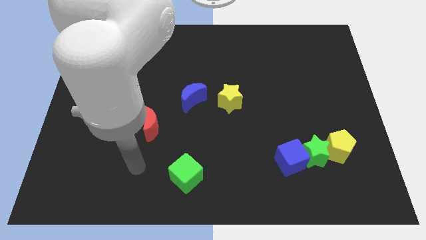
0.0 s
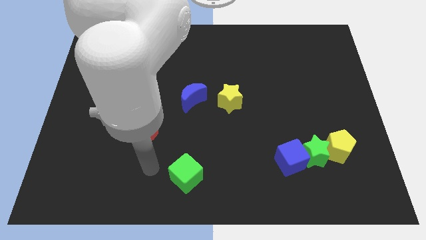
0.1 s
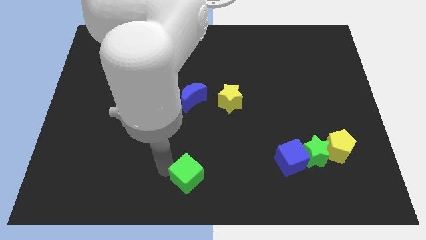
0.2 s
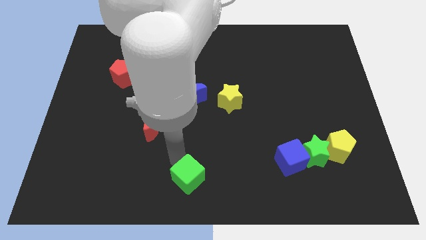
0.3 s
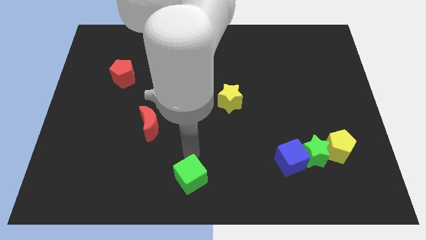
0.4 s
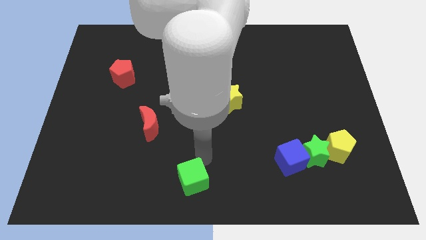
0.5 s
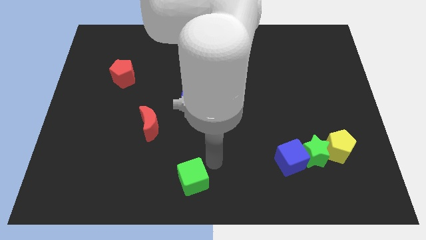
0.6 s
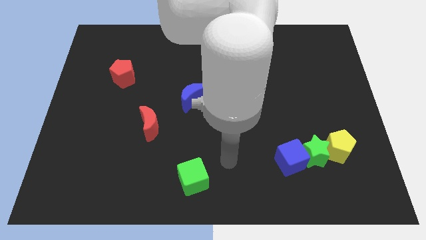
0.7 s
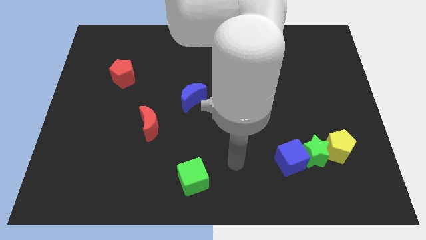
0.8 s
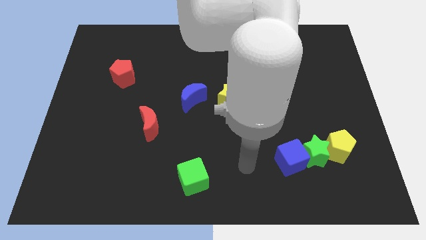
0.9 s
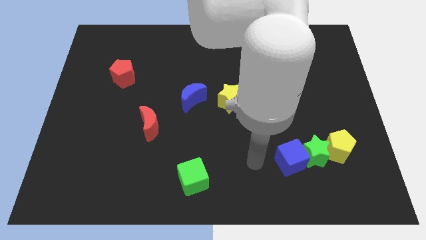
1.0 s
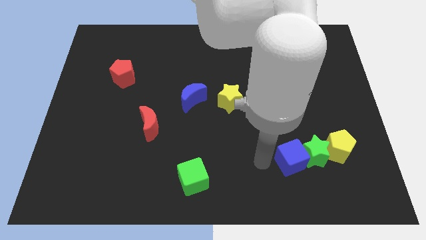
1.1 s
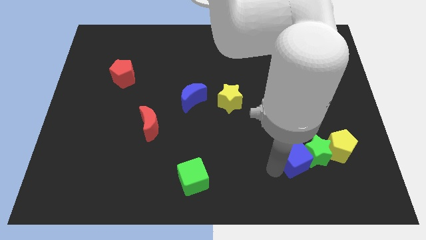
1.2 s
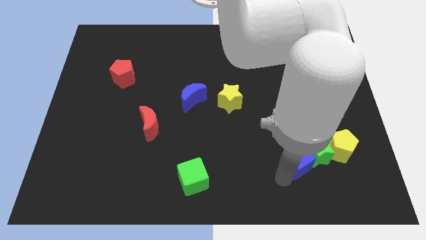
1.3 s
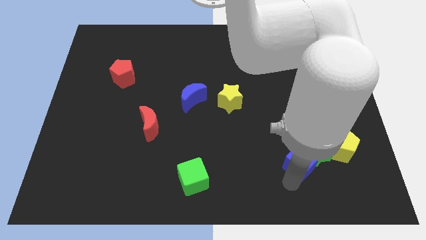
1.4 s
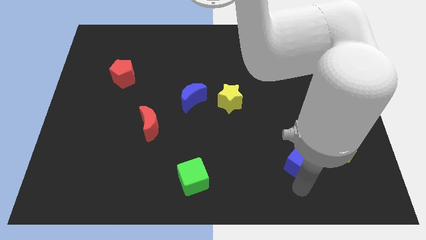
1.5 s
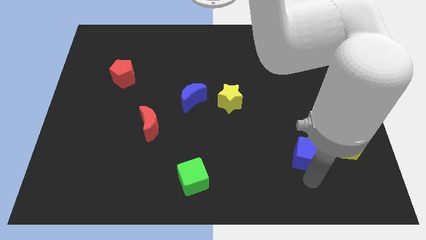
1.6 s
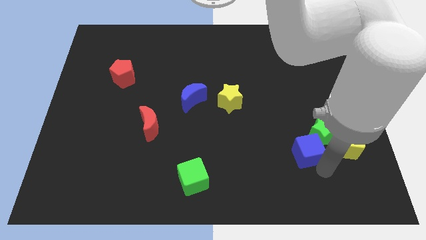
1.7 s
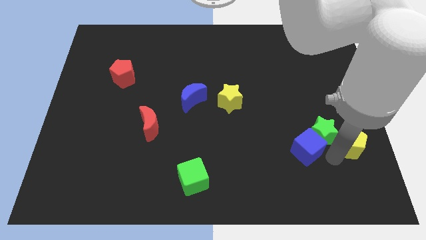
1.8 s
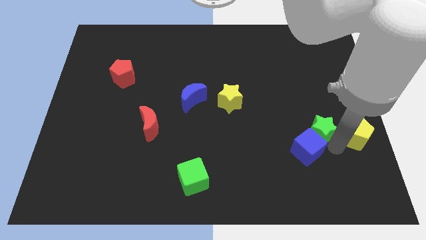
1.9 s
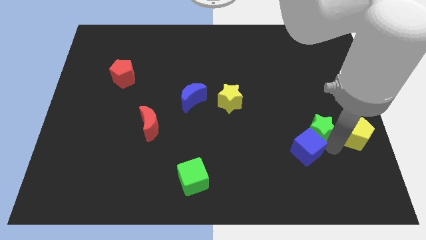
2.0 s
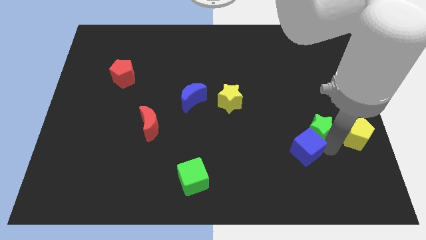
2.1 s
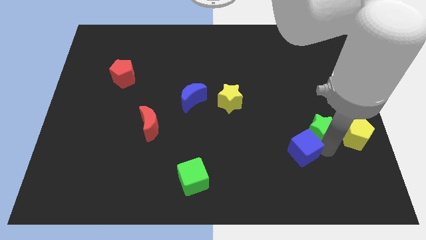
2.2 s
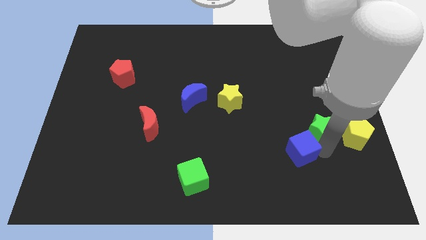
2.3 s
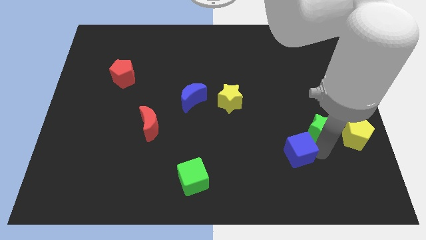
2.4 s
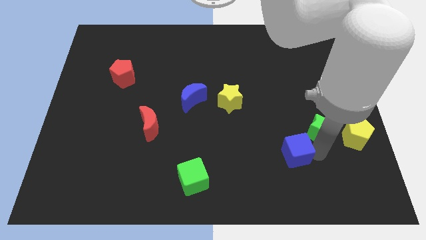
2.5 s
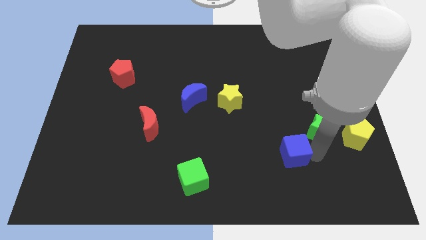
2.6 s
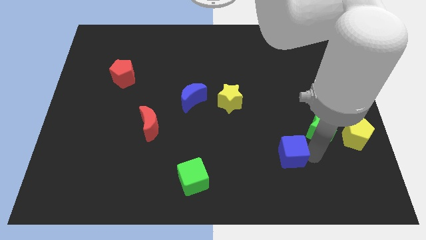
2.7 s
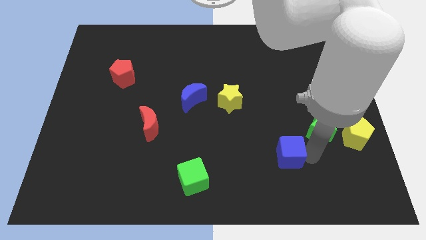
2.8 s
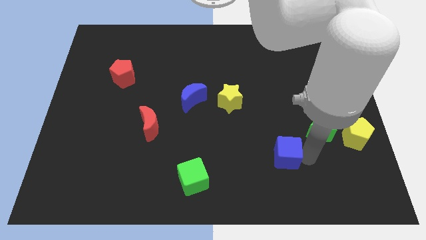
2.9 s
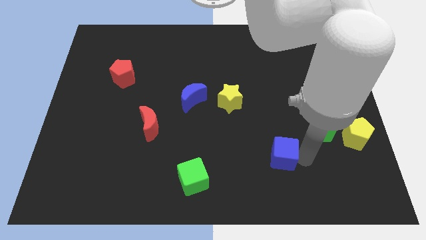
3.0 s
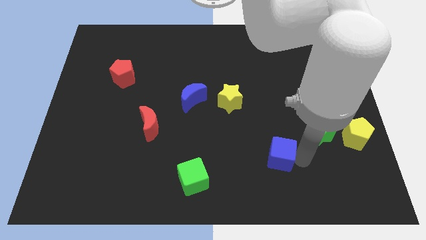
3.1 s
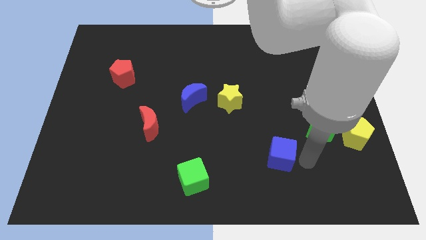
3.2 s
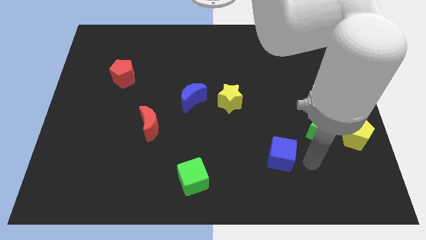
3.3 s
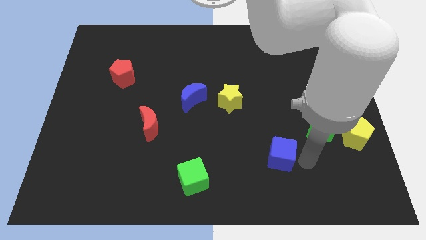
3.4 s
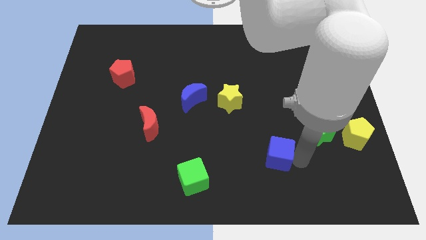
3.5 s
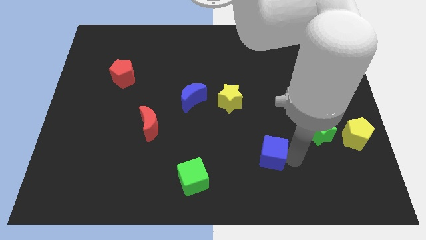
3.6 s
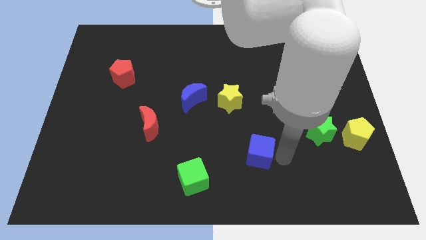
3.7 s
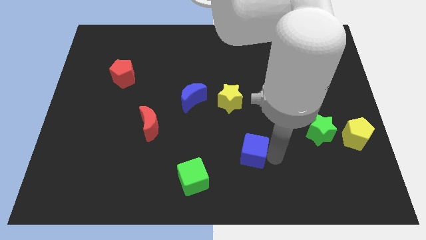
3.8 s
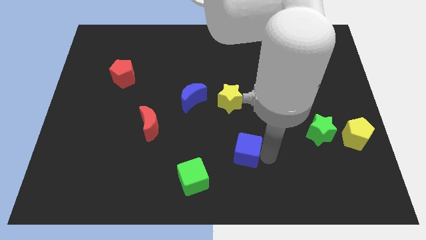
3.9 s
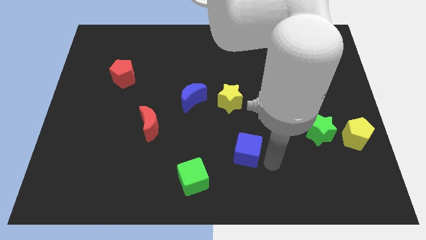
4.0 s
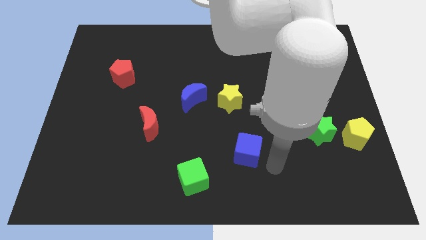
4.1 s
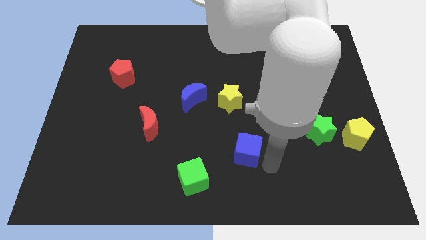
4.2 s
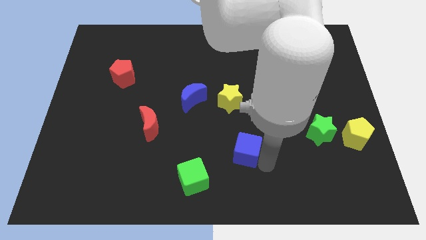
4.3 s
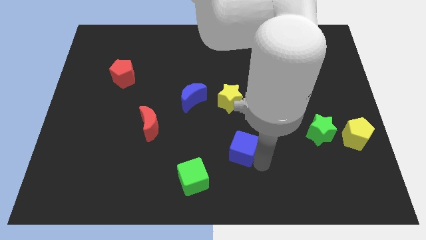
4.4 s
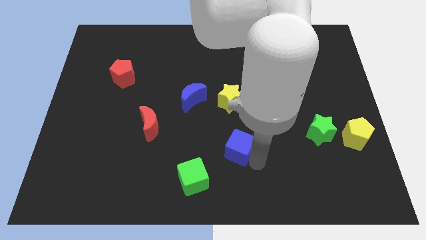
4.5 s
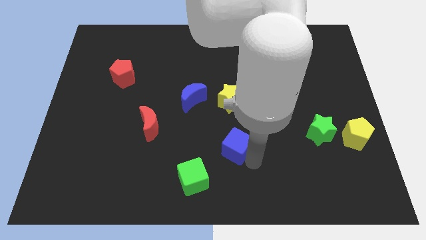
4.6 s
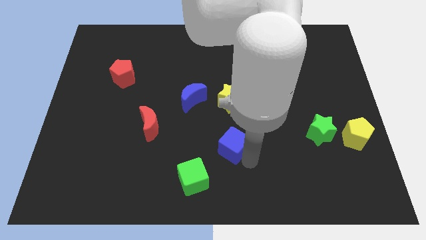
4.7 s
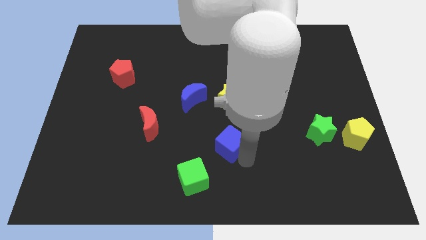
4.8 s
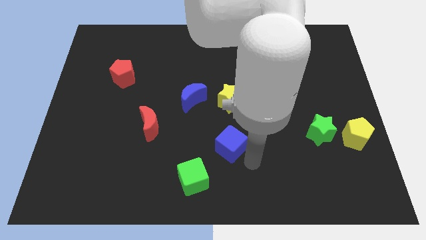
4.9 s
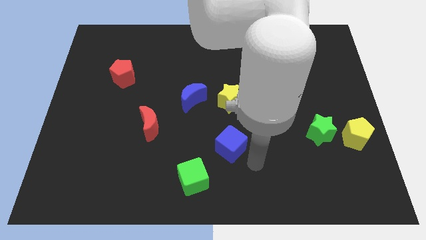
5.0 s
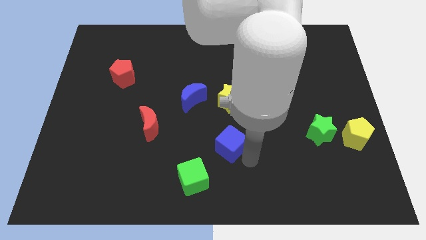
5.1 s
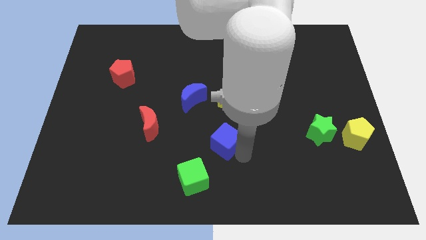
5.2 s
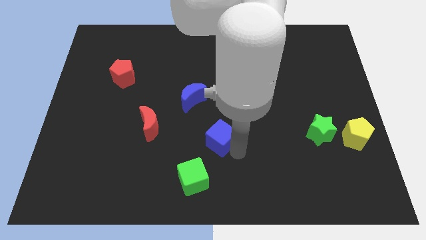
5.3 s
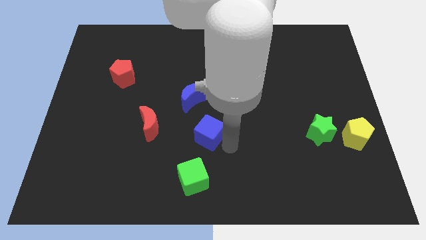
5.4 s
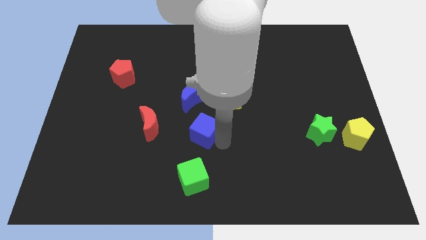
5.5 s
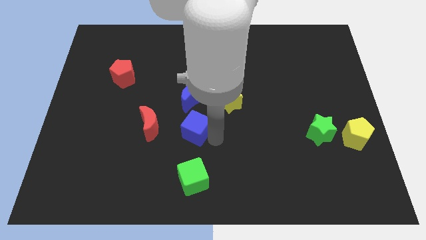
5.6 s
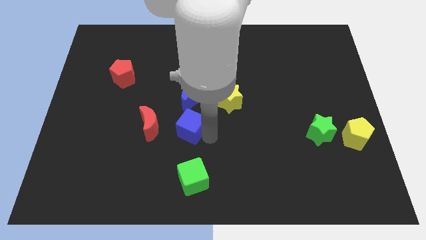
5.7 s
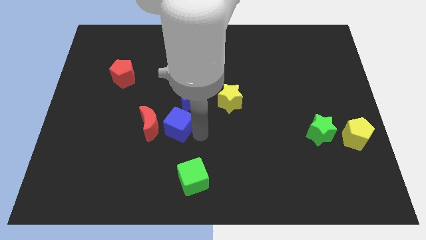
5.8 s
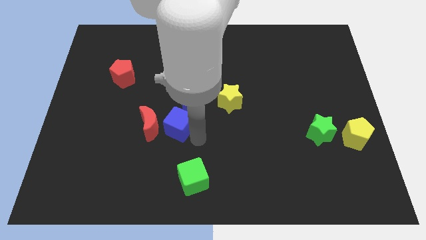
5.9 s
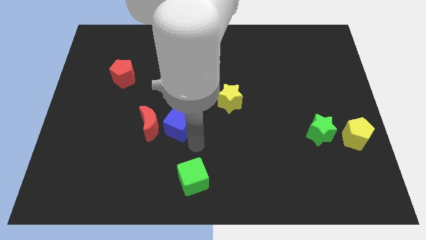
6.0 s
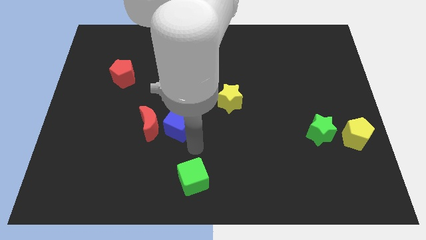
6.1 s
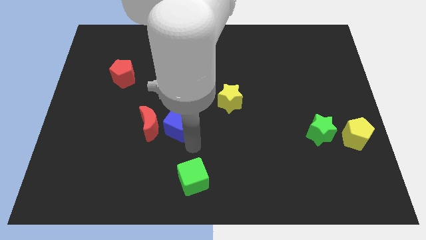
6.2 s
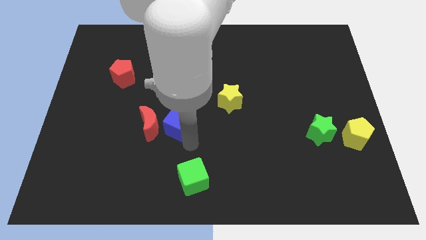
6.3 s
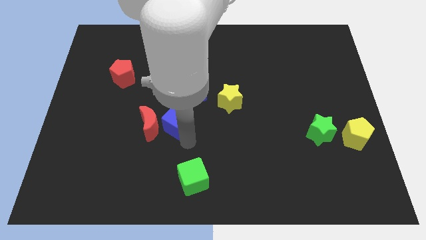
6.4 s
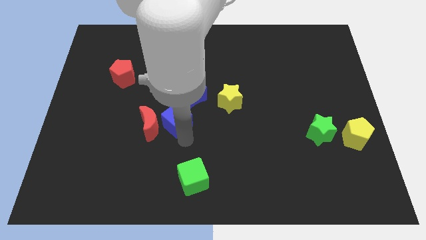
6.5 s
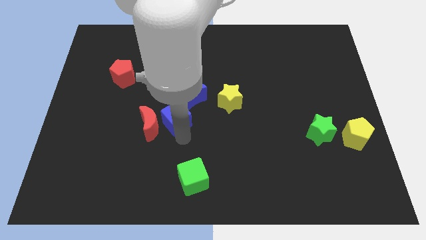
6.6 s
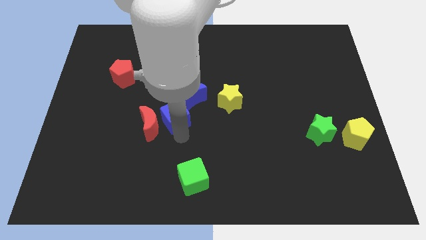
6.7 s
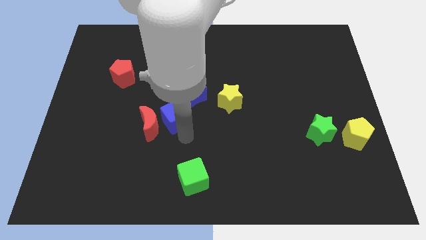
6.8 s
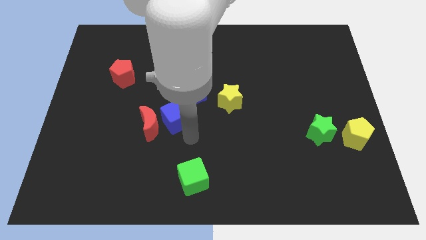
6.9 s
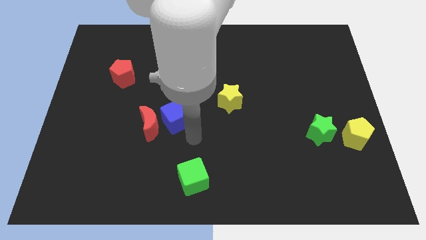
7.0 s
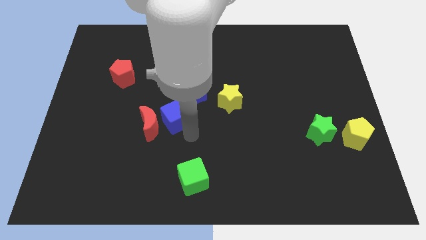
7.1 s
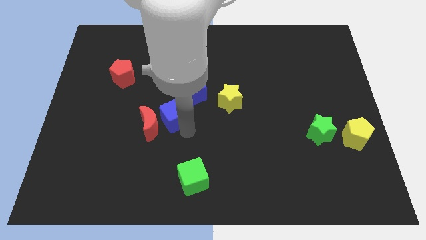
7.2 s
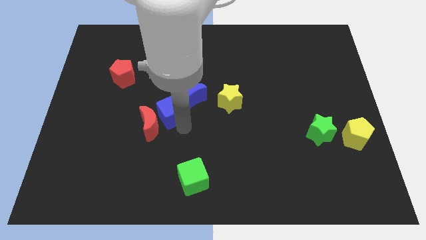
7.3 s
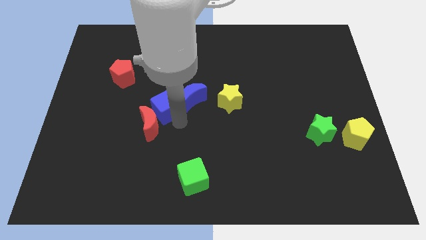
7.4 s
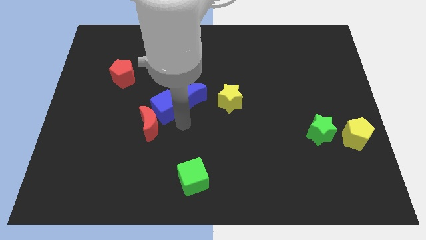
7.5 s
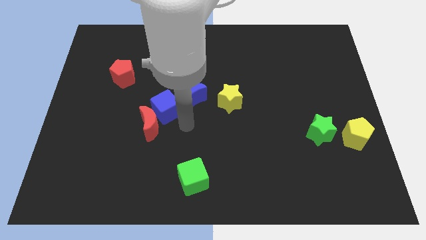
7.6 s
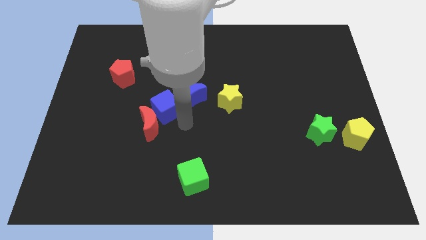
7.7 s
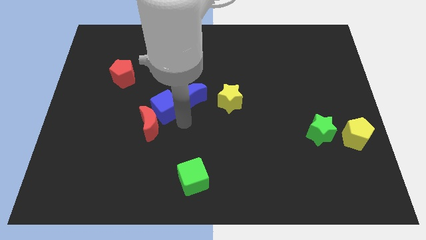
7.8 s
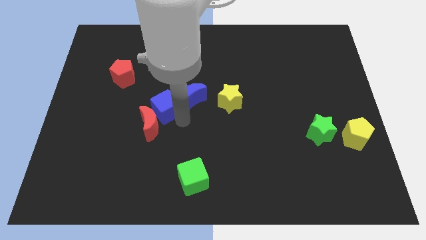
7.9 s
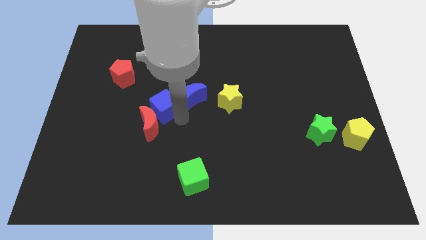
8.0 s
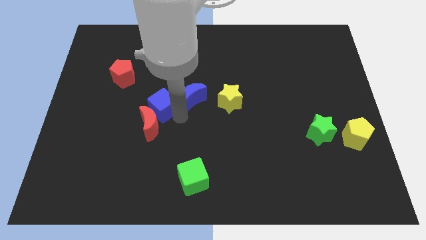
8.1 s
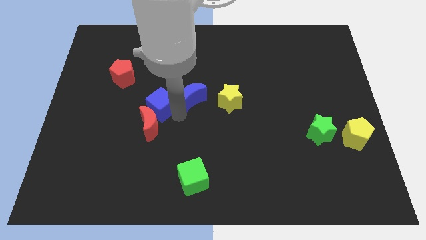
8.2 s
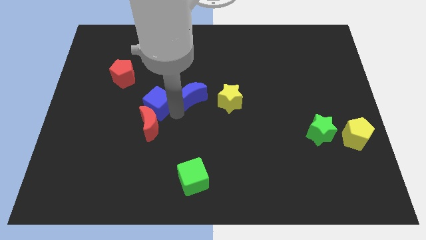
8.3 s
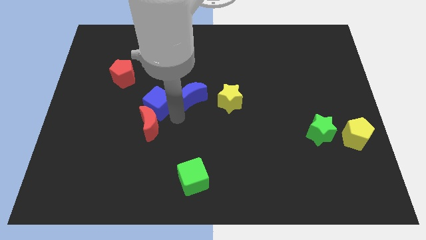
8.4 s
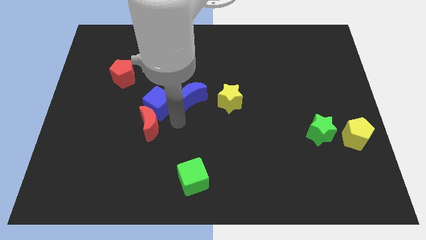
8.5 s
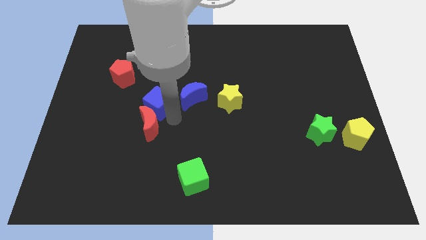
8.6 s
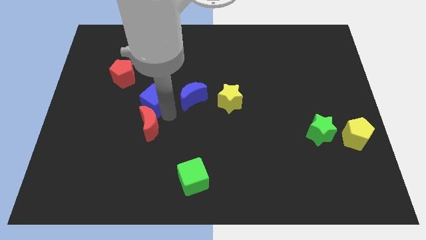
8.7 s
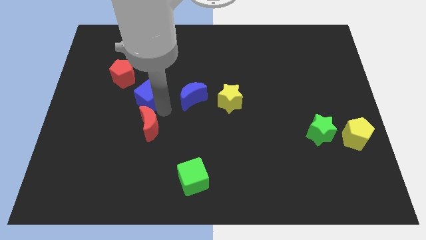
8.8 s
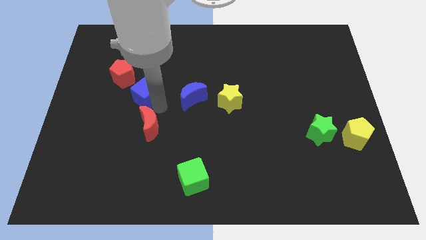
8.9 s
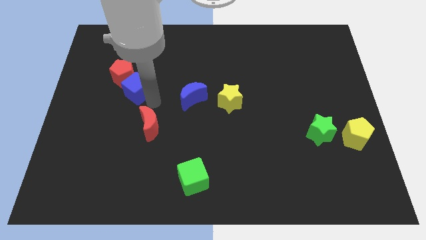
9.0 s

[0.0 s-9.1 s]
put the blue cube towards the red pentagon
